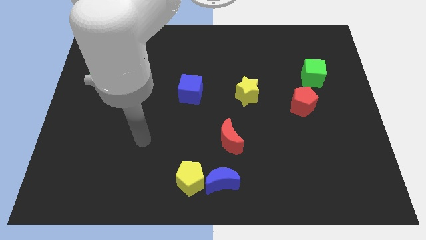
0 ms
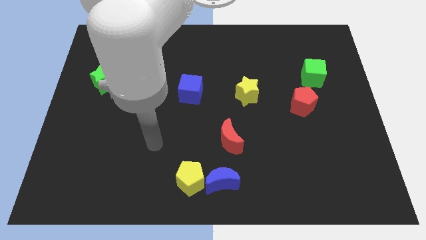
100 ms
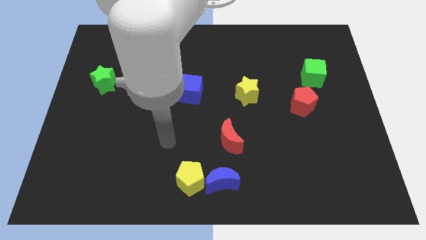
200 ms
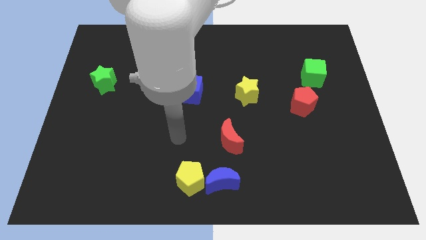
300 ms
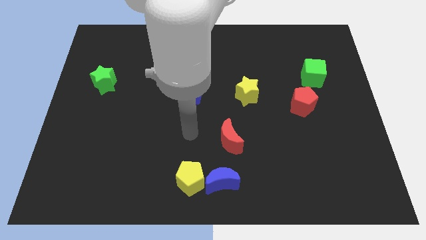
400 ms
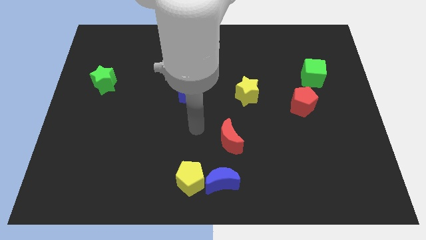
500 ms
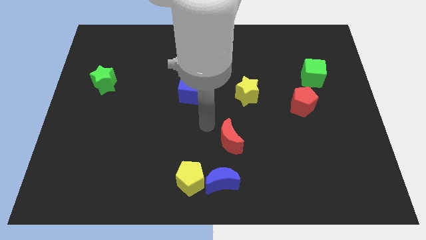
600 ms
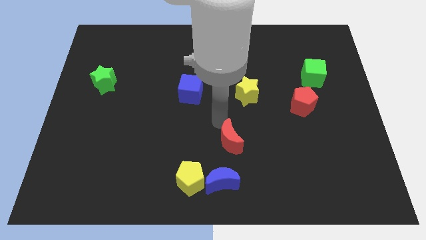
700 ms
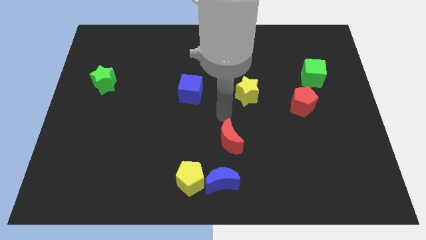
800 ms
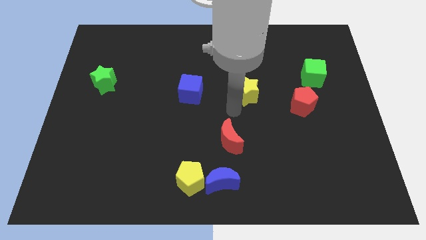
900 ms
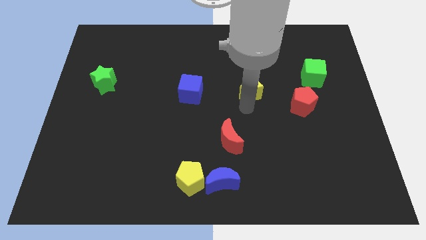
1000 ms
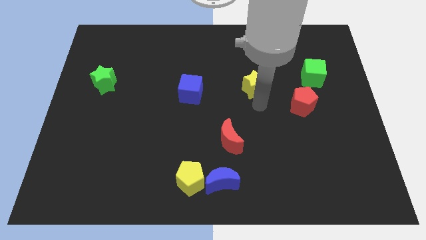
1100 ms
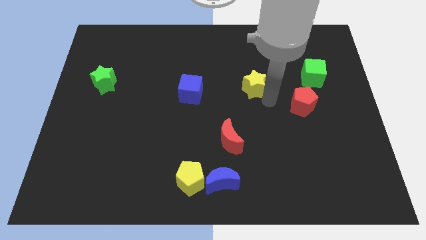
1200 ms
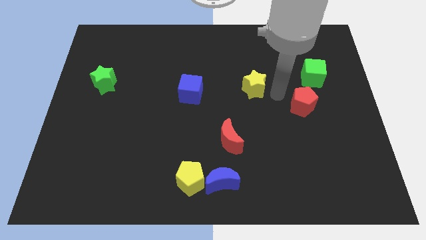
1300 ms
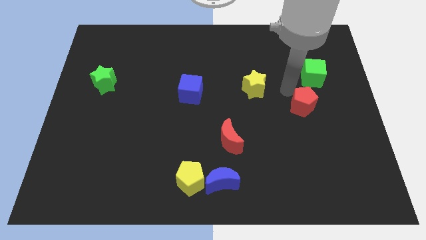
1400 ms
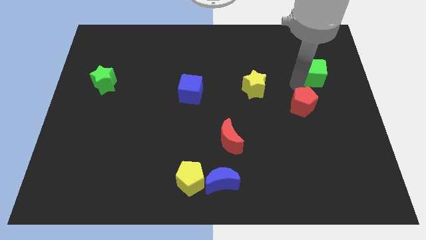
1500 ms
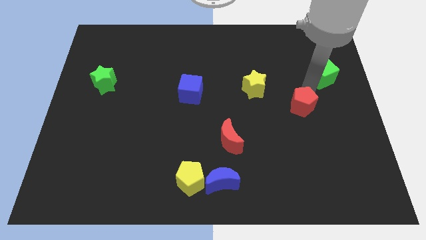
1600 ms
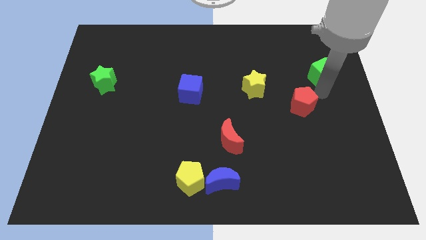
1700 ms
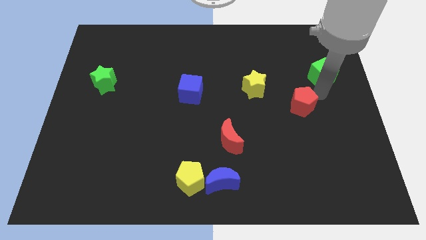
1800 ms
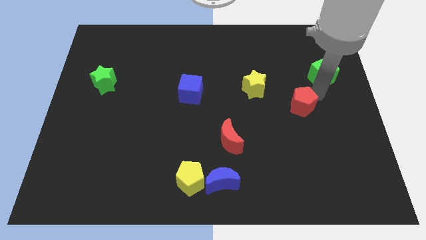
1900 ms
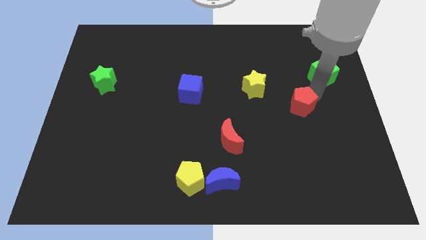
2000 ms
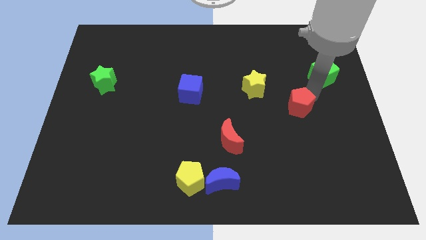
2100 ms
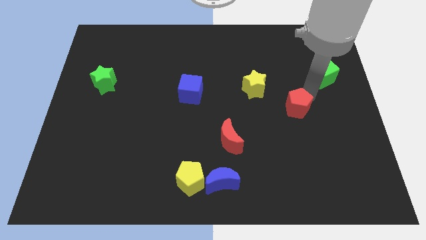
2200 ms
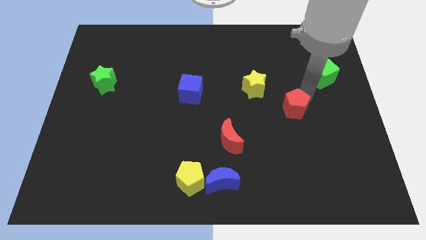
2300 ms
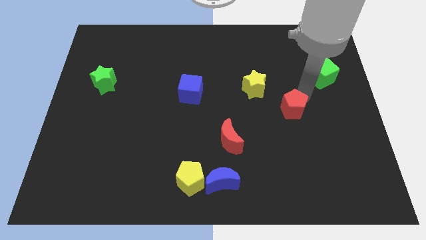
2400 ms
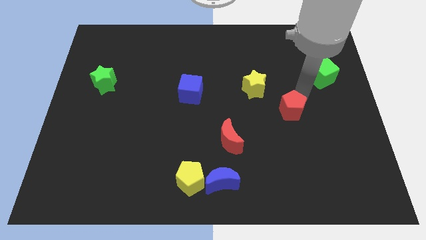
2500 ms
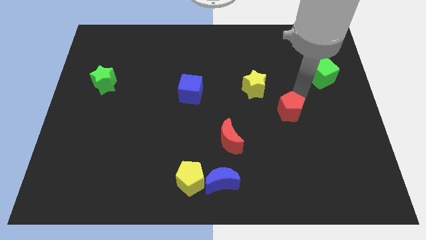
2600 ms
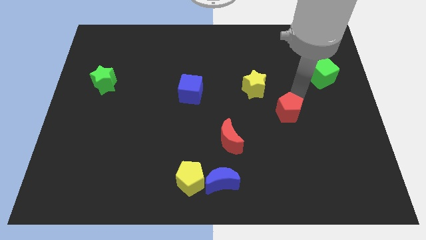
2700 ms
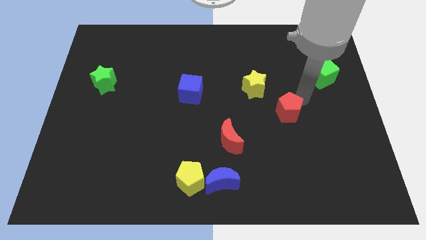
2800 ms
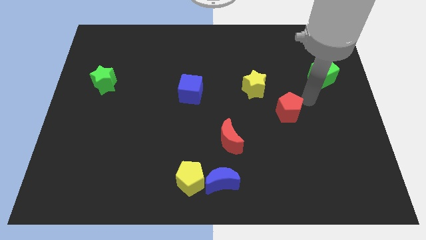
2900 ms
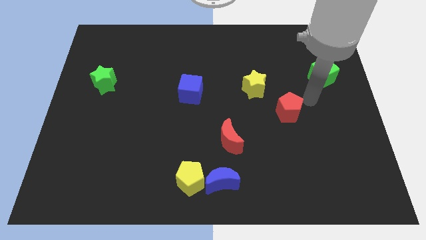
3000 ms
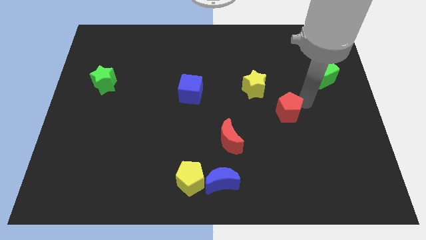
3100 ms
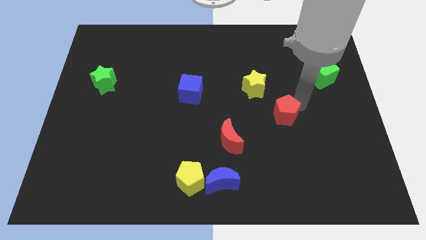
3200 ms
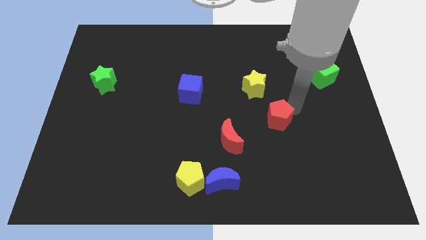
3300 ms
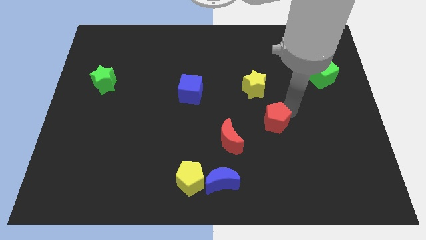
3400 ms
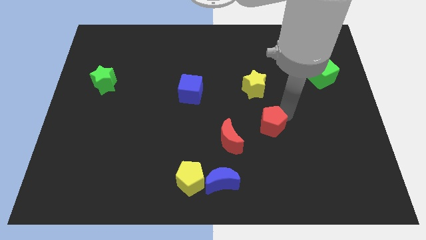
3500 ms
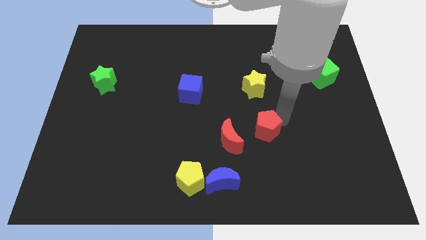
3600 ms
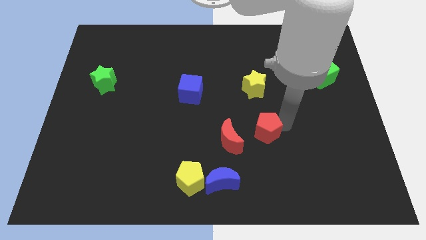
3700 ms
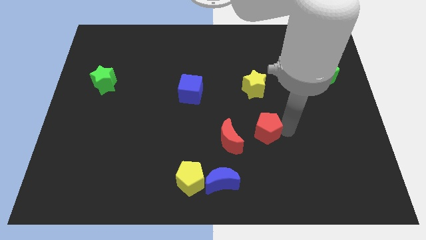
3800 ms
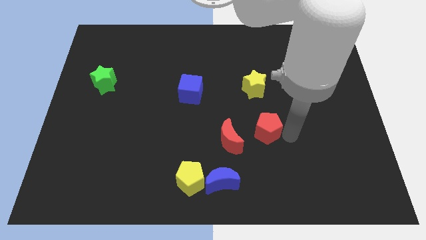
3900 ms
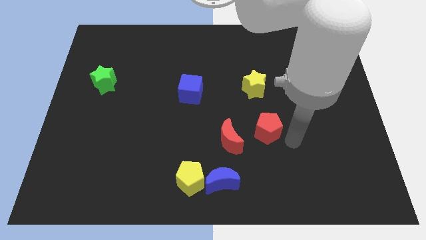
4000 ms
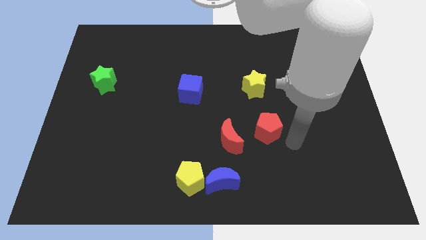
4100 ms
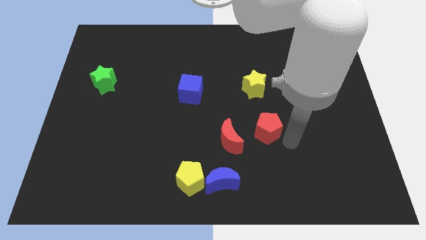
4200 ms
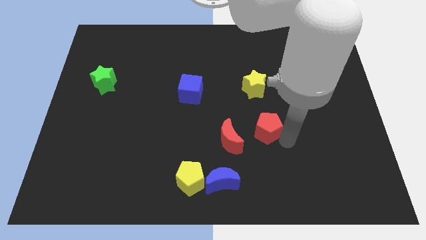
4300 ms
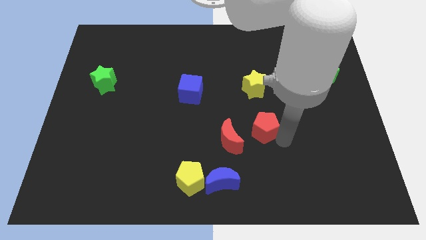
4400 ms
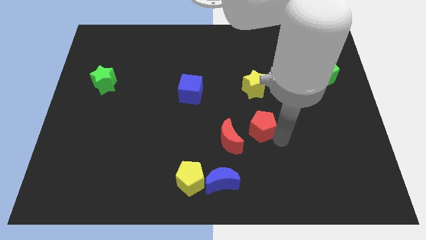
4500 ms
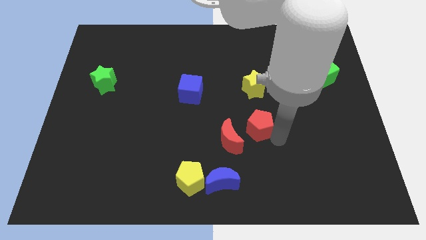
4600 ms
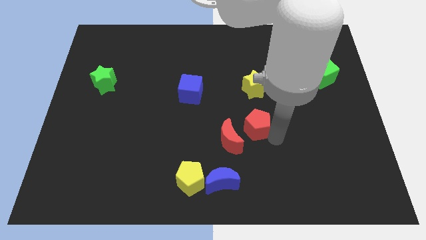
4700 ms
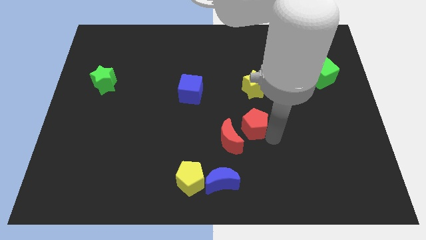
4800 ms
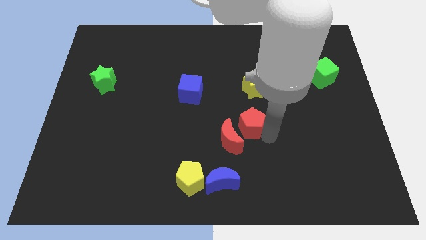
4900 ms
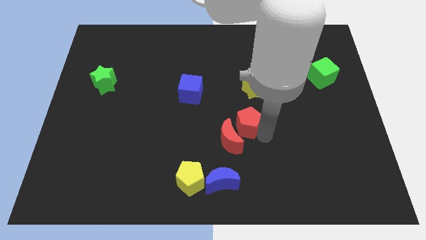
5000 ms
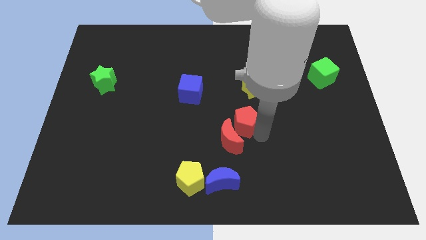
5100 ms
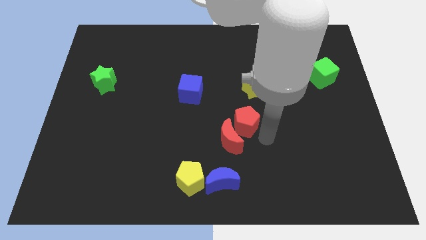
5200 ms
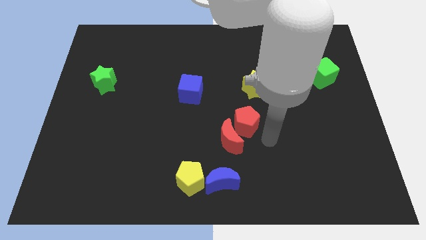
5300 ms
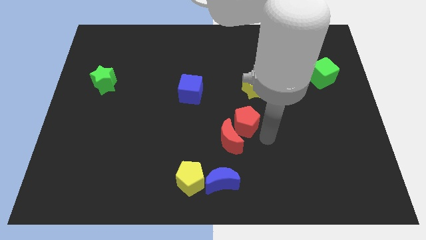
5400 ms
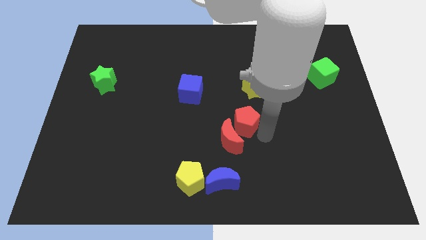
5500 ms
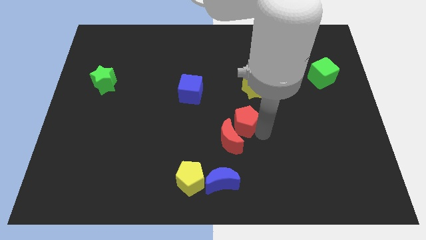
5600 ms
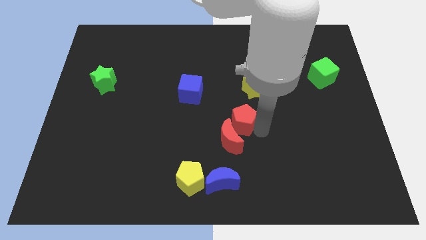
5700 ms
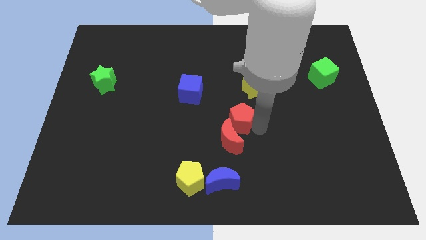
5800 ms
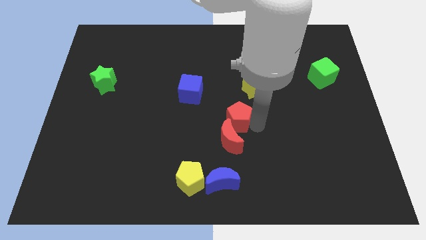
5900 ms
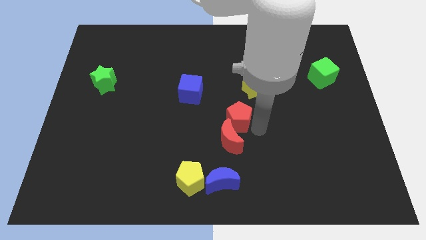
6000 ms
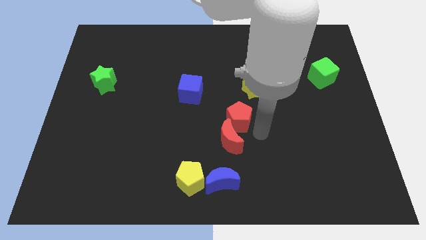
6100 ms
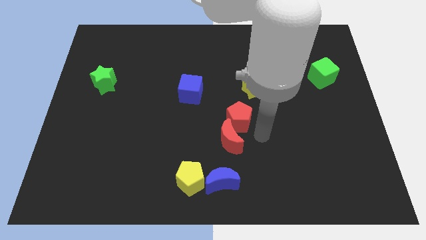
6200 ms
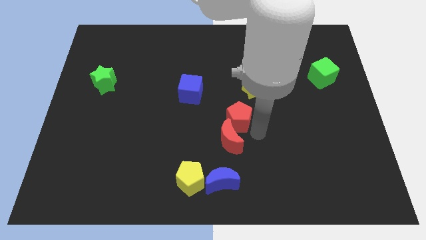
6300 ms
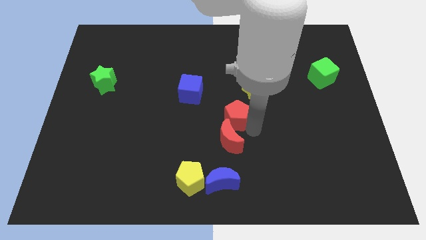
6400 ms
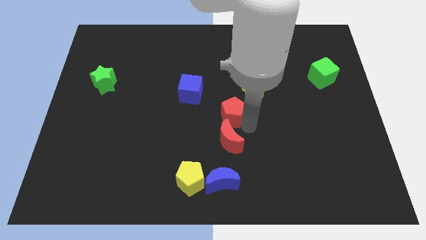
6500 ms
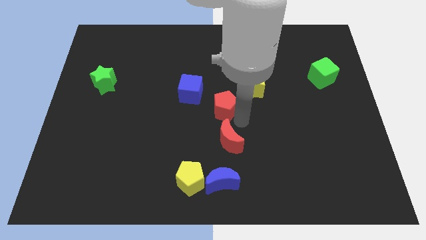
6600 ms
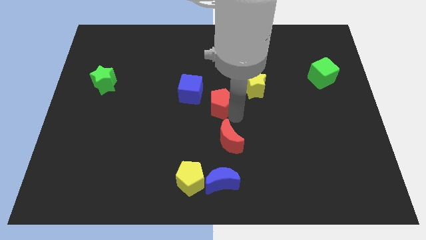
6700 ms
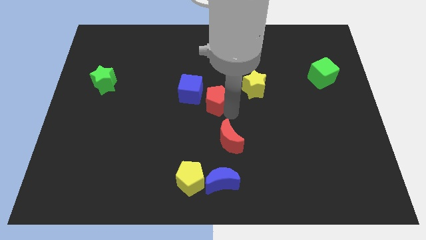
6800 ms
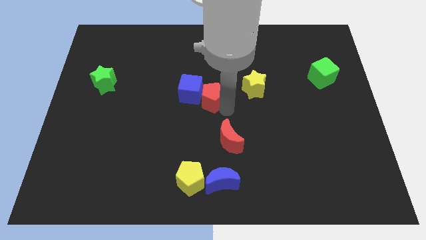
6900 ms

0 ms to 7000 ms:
put the red pentagon towards the blue cube

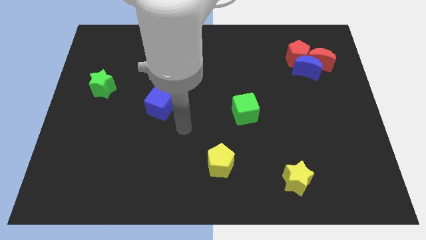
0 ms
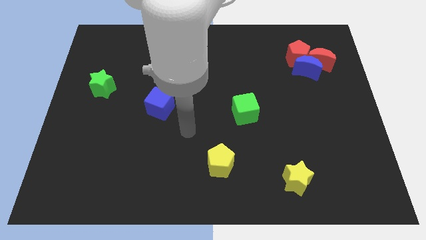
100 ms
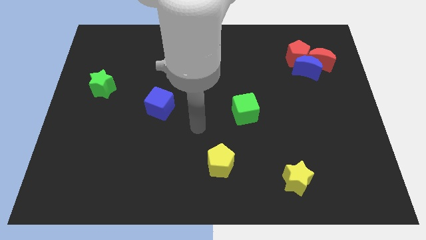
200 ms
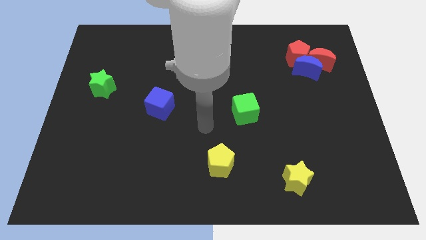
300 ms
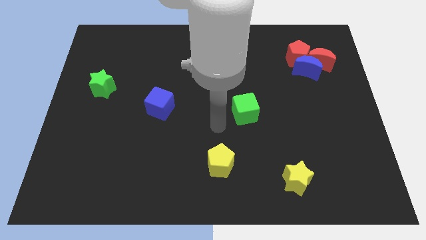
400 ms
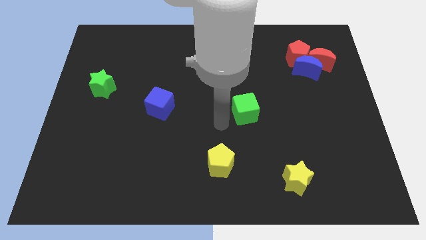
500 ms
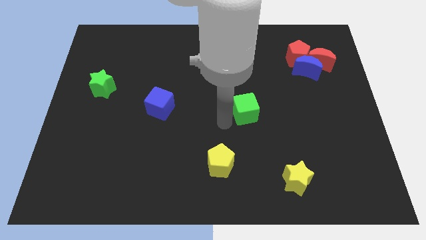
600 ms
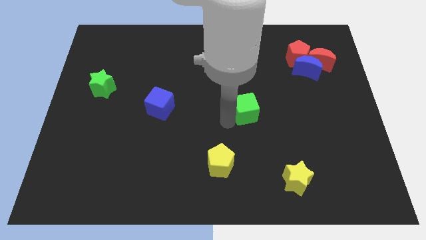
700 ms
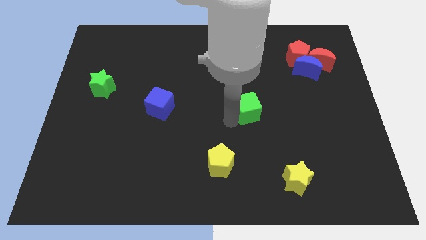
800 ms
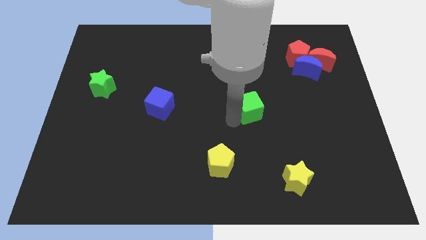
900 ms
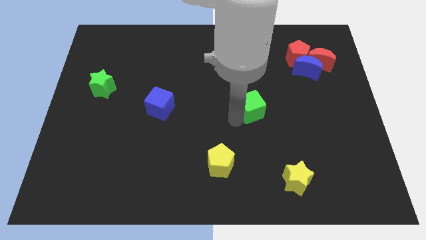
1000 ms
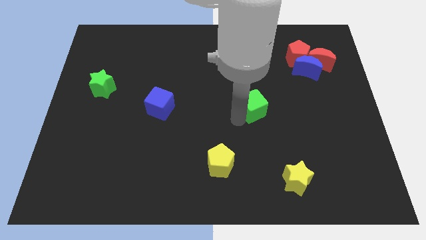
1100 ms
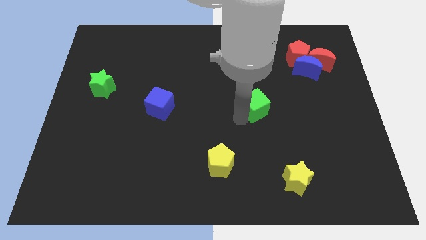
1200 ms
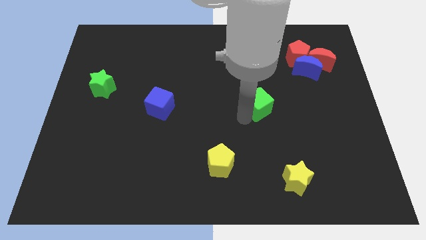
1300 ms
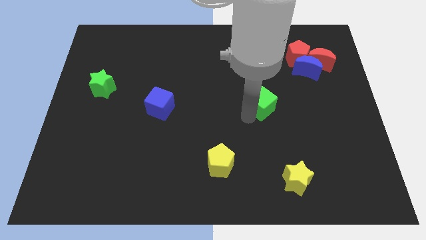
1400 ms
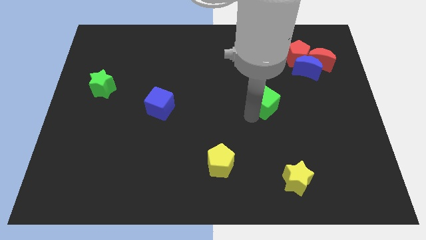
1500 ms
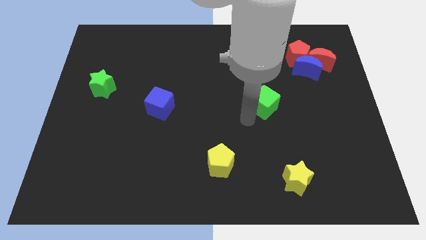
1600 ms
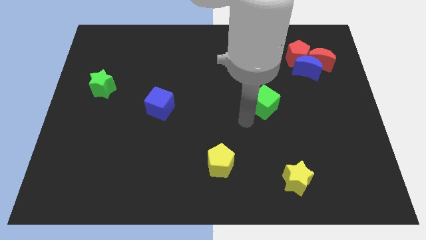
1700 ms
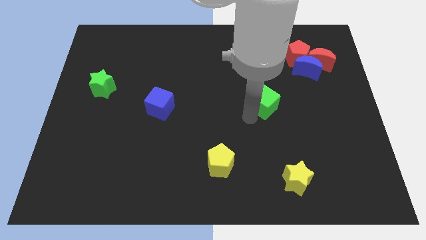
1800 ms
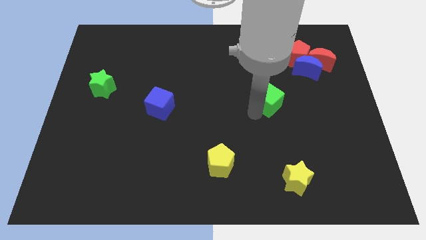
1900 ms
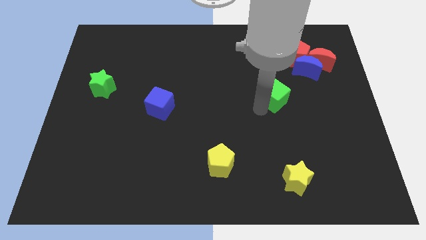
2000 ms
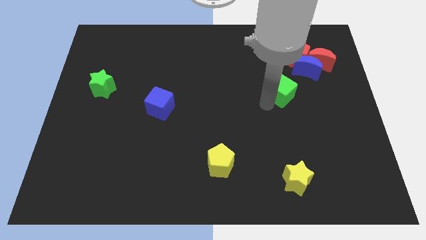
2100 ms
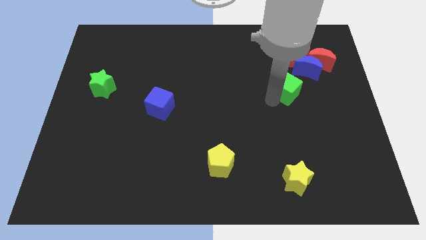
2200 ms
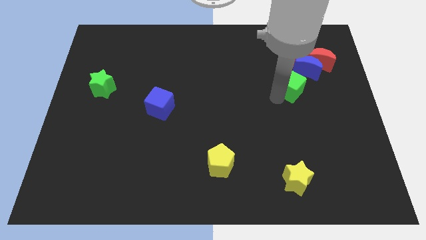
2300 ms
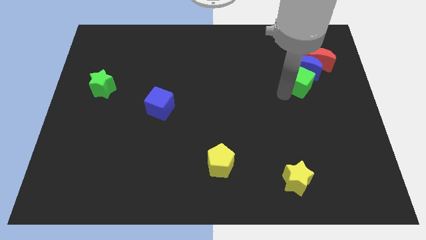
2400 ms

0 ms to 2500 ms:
push the green cube next to the blue moon
